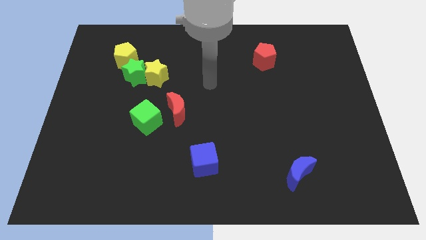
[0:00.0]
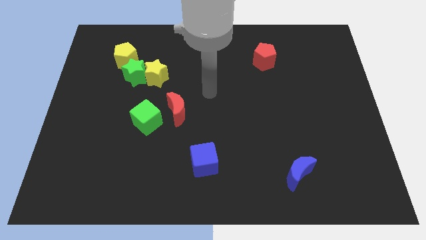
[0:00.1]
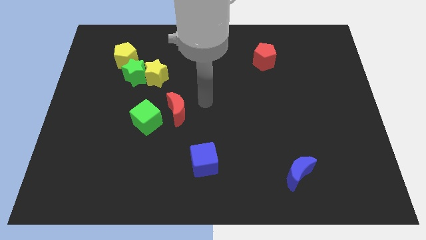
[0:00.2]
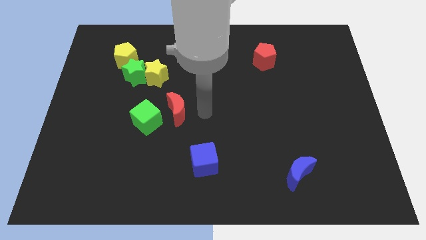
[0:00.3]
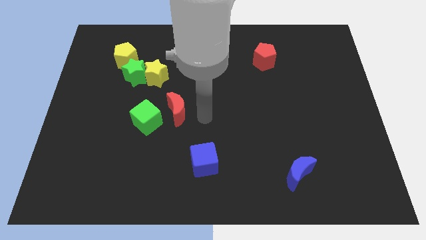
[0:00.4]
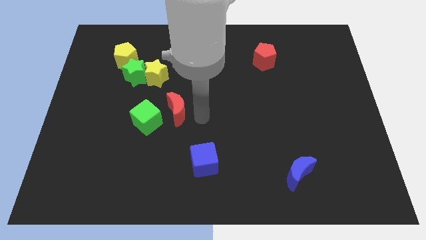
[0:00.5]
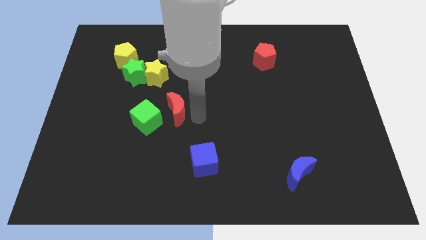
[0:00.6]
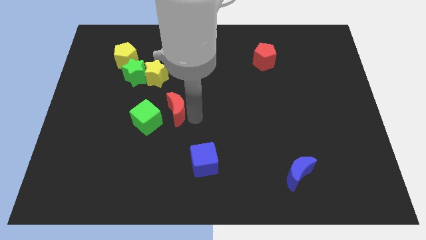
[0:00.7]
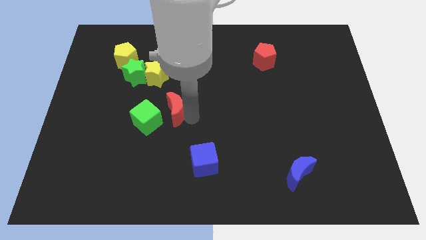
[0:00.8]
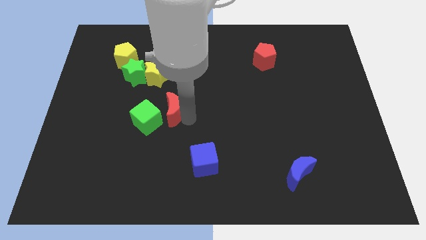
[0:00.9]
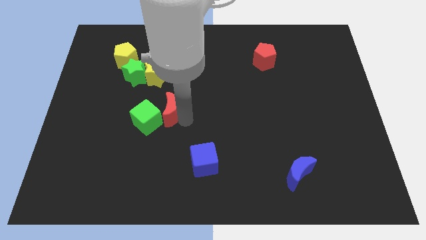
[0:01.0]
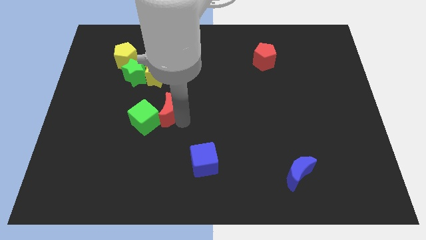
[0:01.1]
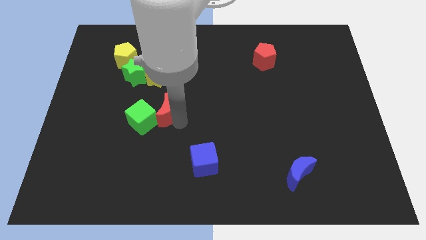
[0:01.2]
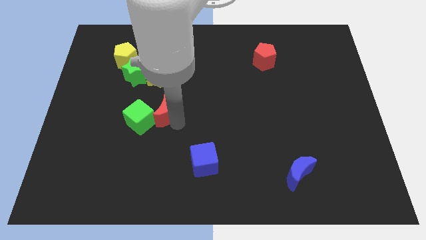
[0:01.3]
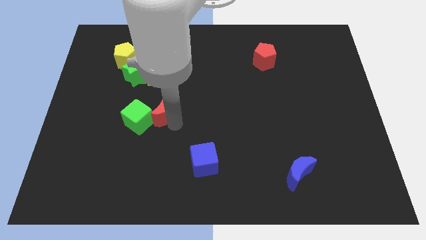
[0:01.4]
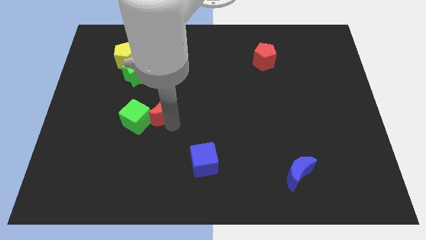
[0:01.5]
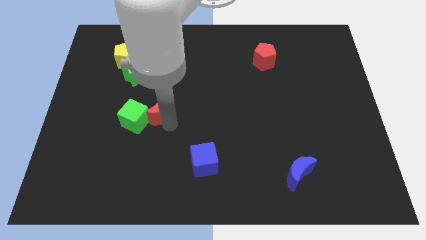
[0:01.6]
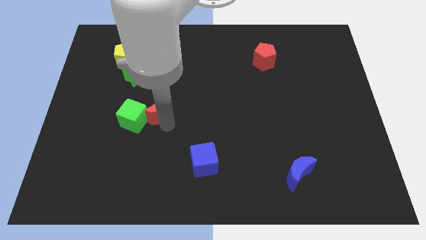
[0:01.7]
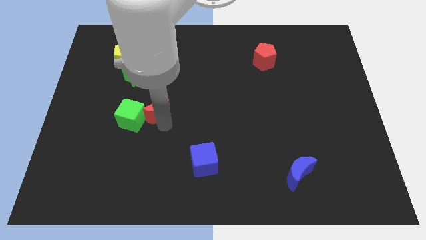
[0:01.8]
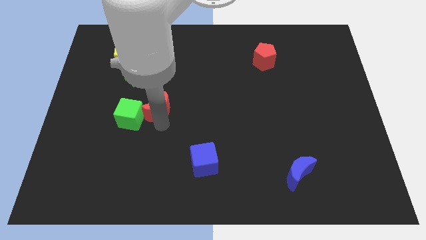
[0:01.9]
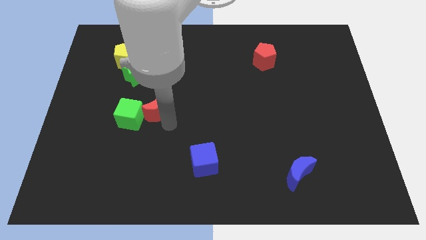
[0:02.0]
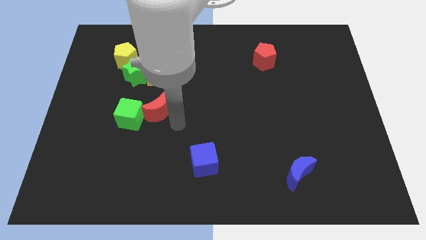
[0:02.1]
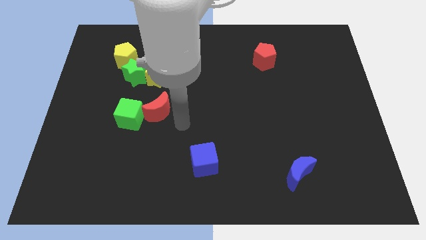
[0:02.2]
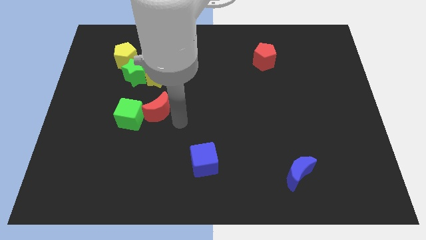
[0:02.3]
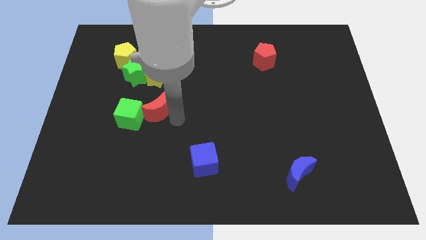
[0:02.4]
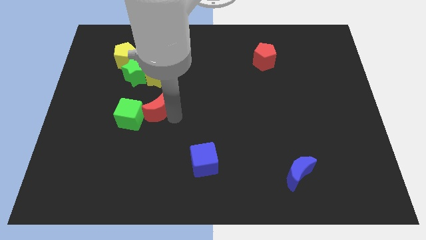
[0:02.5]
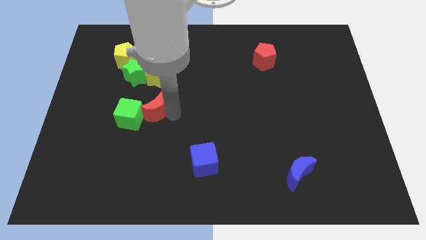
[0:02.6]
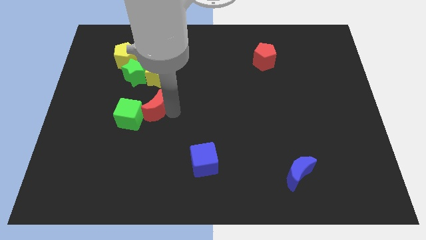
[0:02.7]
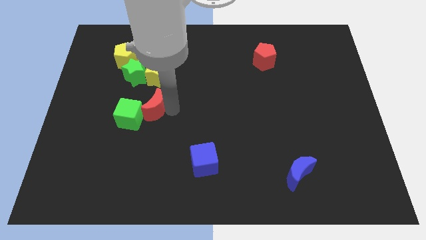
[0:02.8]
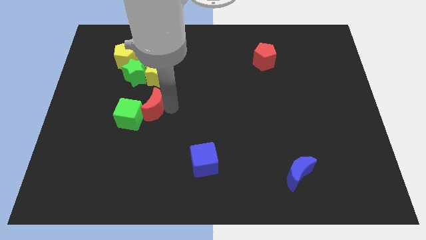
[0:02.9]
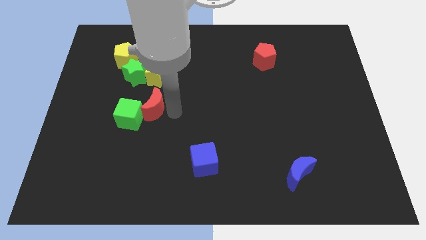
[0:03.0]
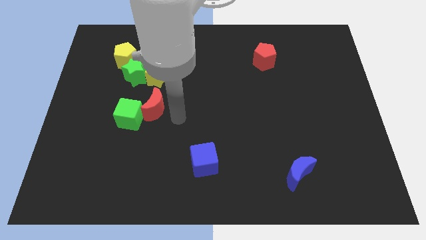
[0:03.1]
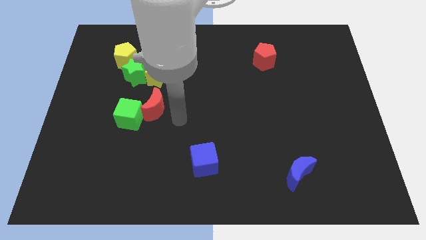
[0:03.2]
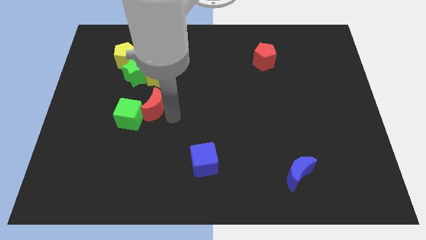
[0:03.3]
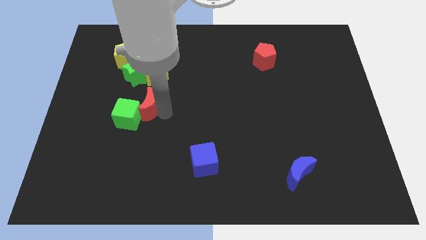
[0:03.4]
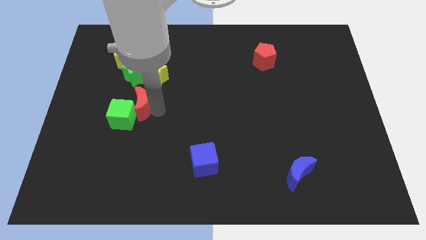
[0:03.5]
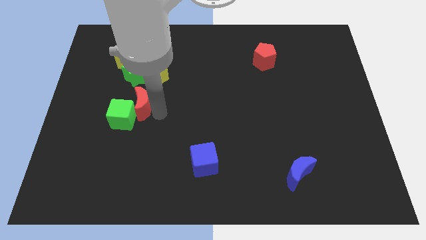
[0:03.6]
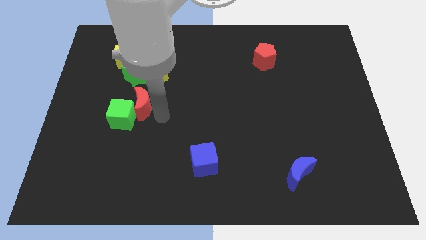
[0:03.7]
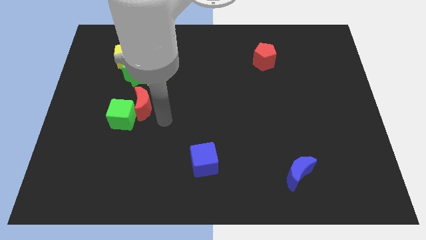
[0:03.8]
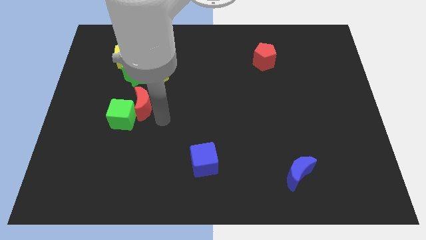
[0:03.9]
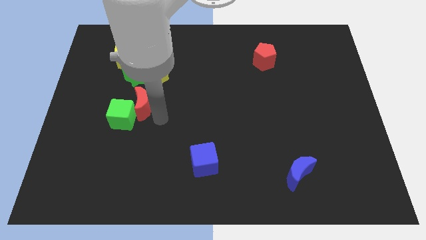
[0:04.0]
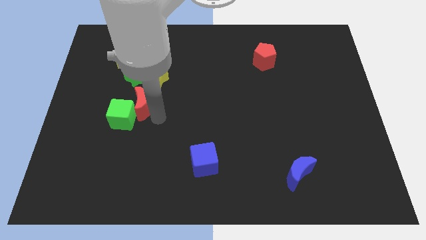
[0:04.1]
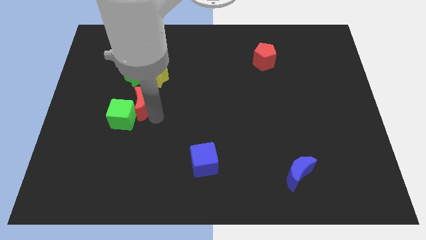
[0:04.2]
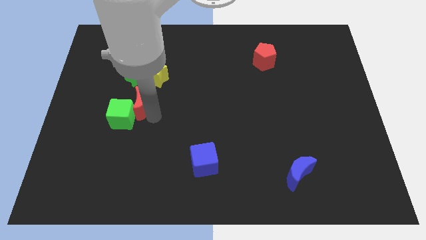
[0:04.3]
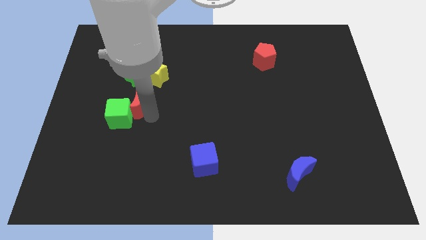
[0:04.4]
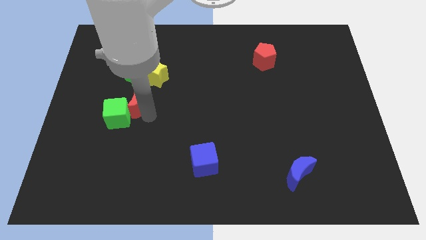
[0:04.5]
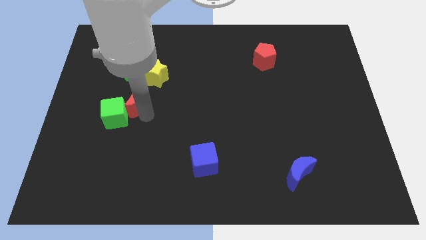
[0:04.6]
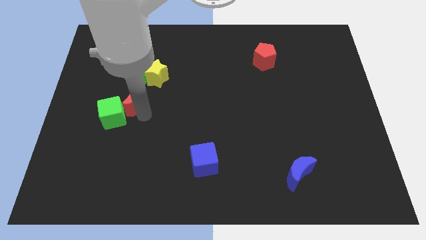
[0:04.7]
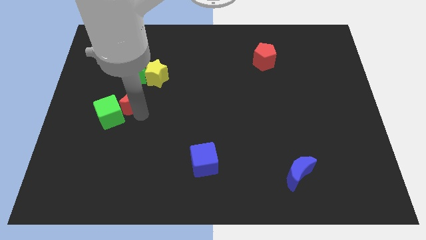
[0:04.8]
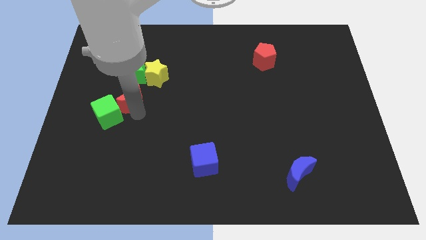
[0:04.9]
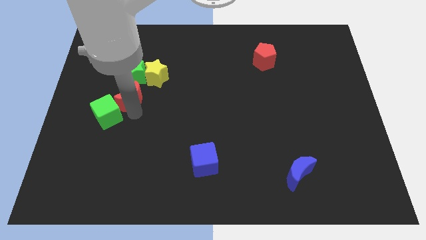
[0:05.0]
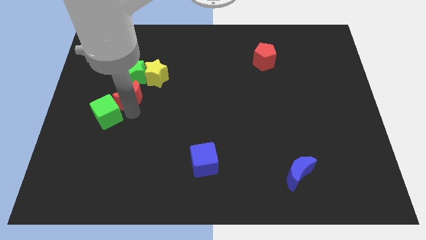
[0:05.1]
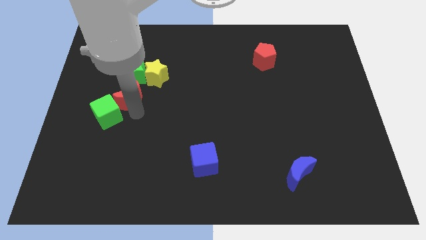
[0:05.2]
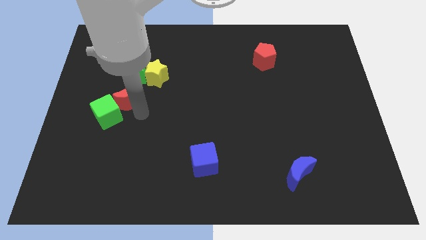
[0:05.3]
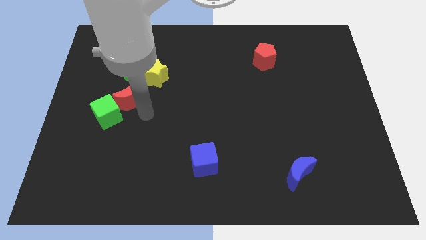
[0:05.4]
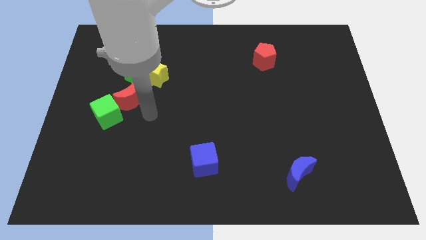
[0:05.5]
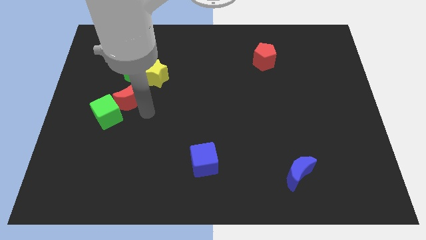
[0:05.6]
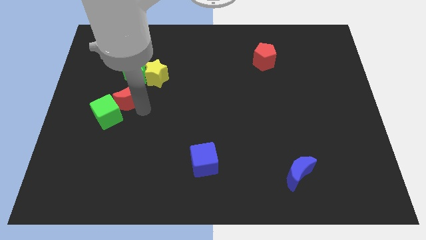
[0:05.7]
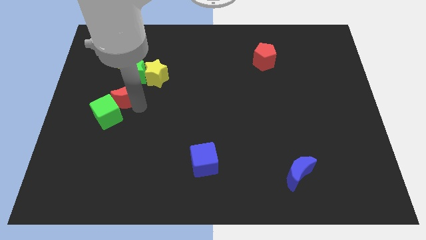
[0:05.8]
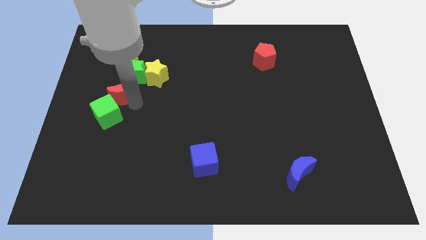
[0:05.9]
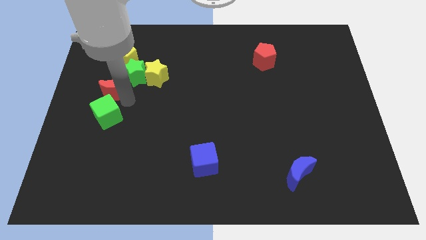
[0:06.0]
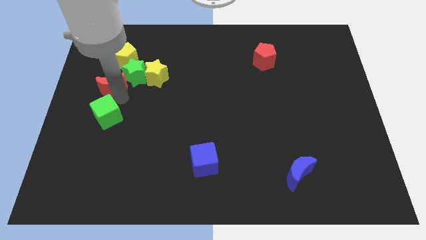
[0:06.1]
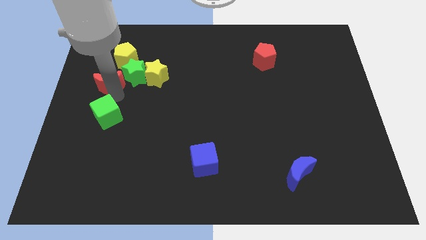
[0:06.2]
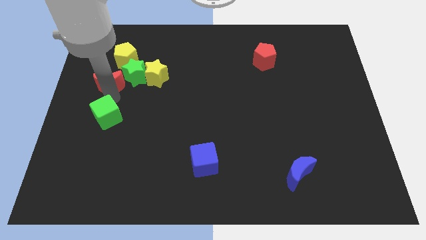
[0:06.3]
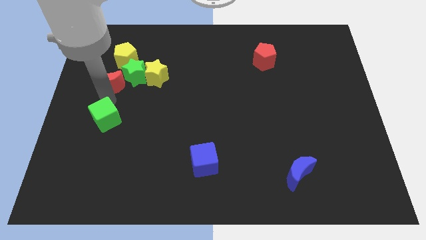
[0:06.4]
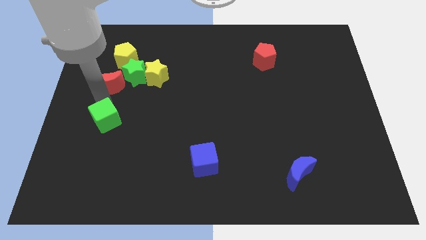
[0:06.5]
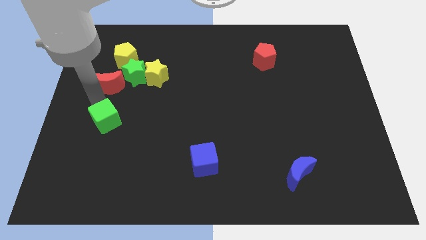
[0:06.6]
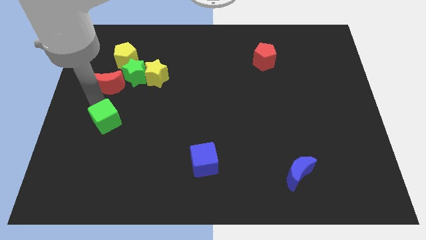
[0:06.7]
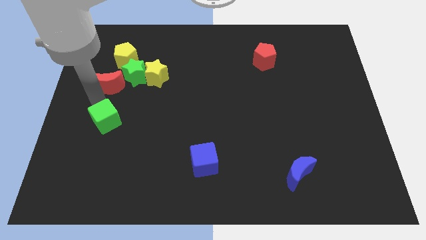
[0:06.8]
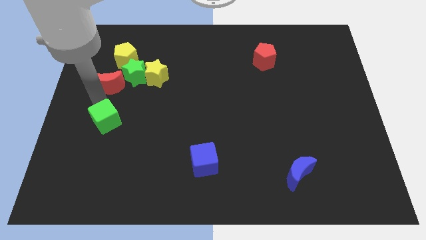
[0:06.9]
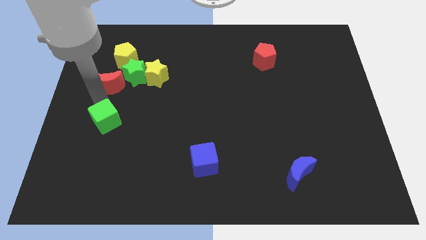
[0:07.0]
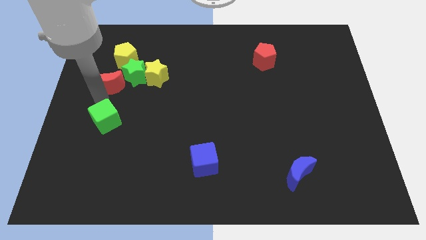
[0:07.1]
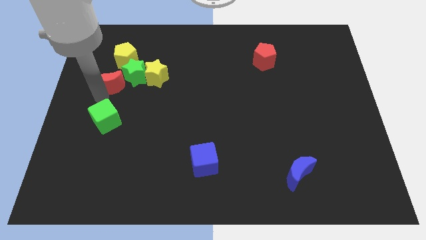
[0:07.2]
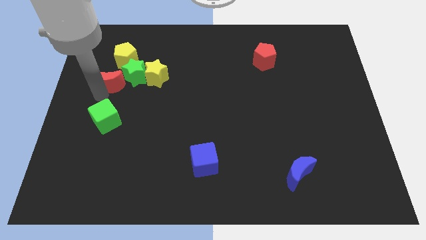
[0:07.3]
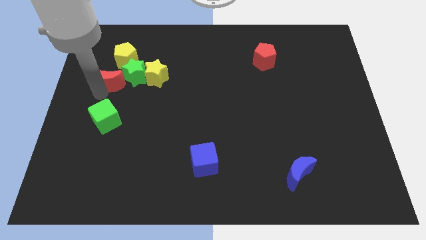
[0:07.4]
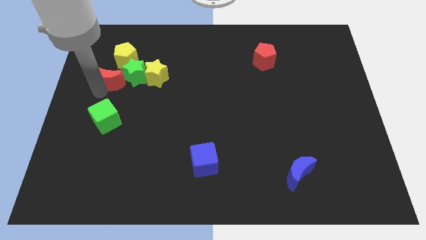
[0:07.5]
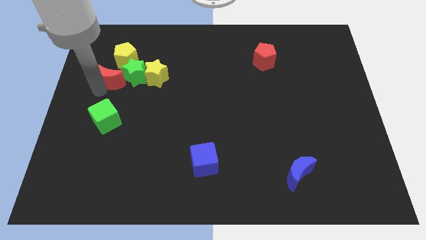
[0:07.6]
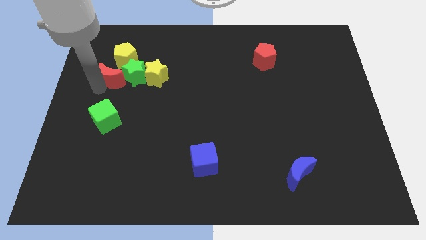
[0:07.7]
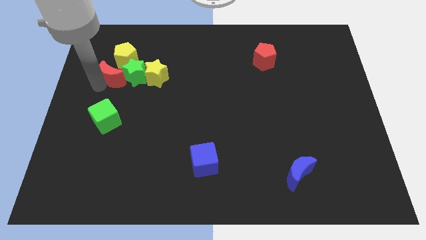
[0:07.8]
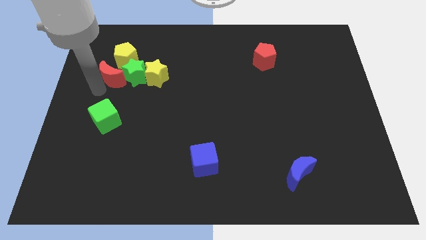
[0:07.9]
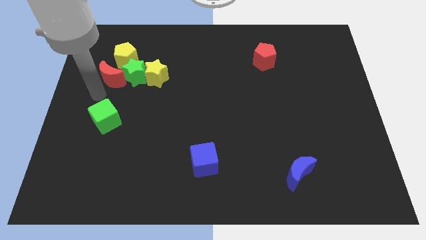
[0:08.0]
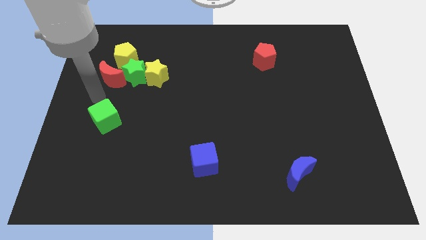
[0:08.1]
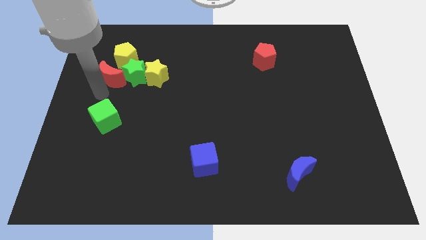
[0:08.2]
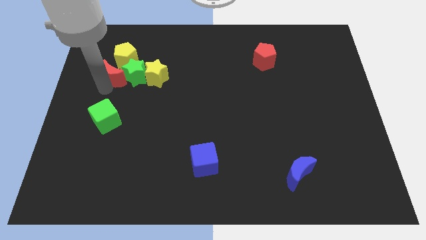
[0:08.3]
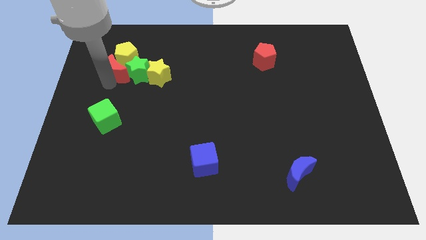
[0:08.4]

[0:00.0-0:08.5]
slide the red moon close to the yellow pentagon
